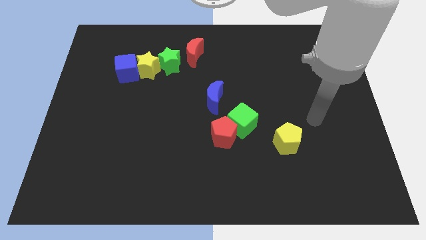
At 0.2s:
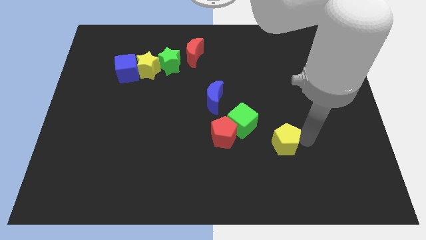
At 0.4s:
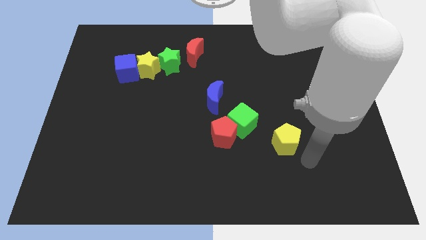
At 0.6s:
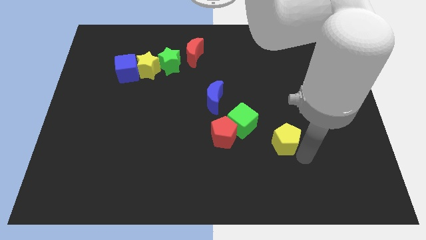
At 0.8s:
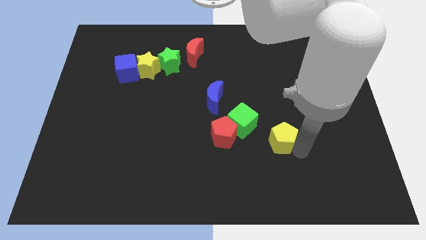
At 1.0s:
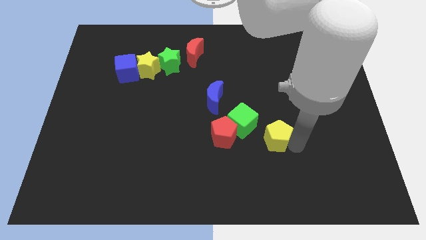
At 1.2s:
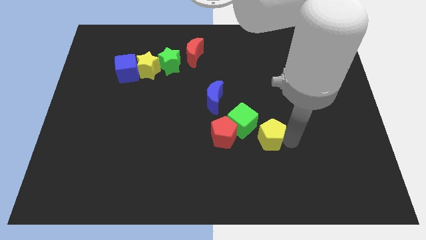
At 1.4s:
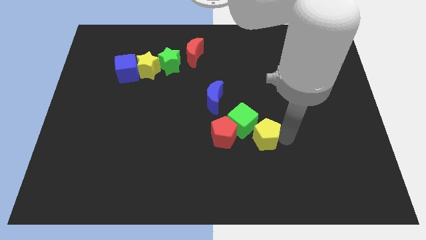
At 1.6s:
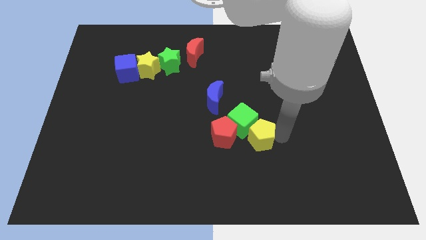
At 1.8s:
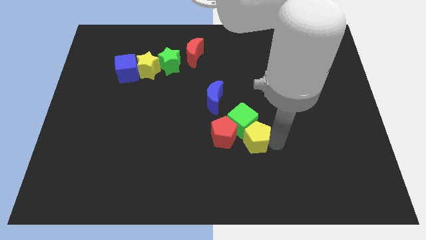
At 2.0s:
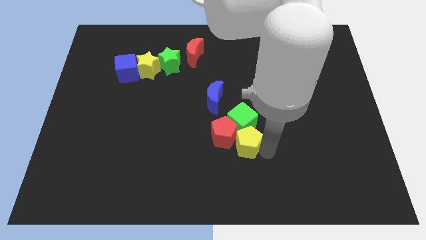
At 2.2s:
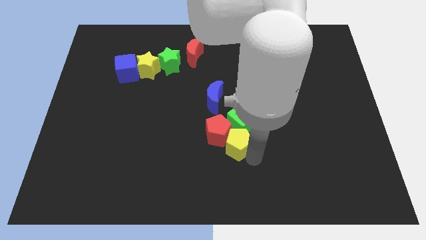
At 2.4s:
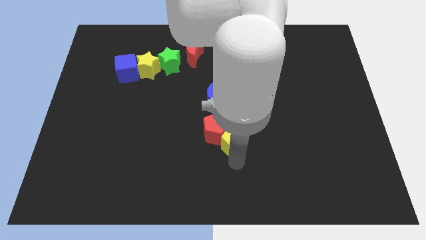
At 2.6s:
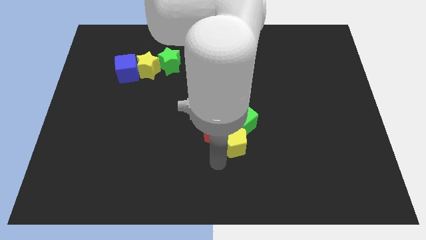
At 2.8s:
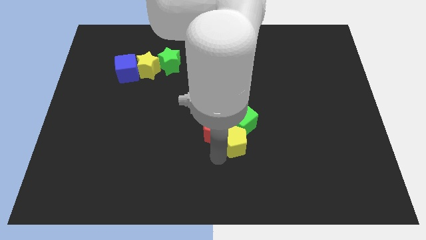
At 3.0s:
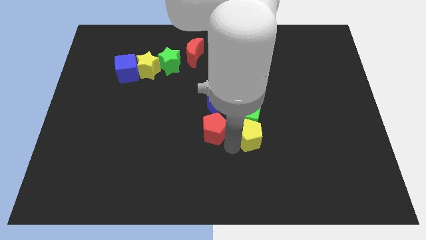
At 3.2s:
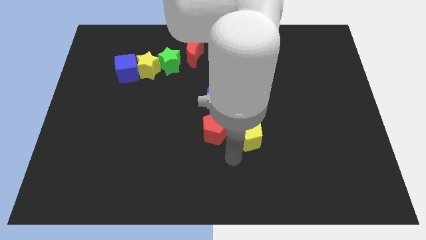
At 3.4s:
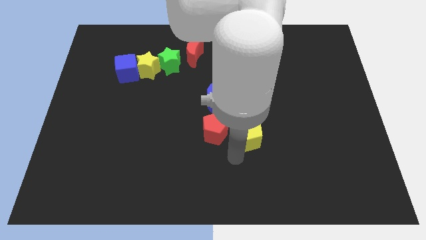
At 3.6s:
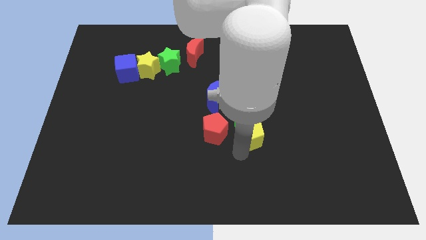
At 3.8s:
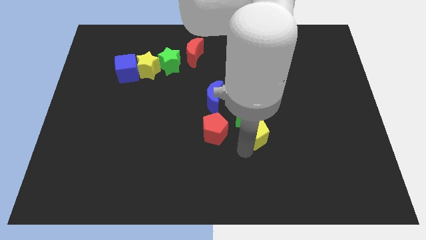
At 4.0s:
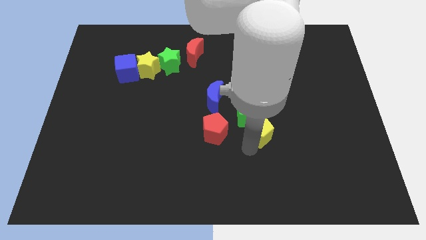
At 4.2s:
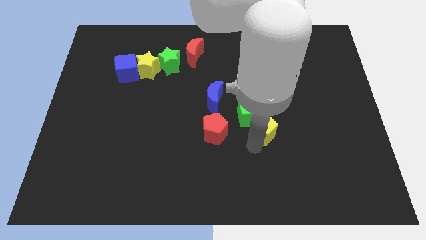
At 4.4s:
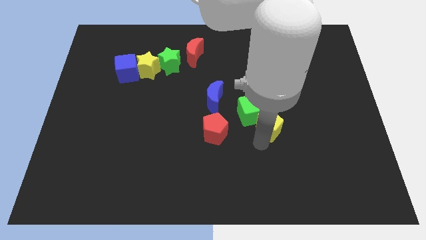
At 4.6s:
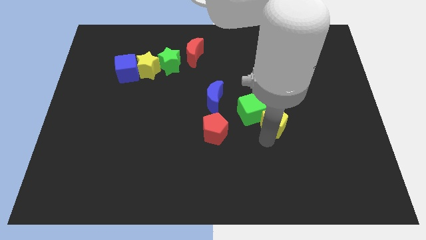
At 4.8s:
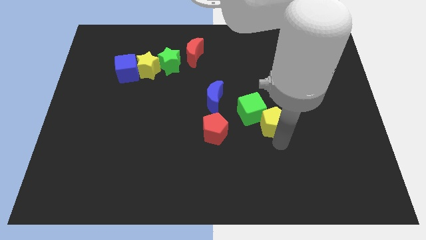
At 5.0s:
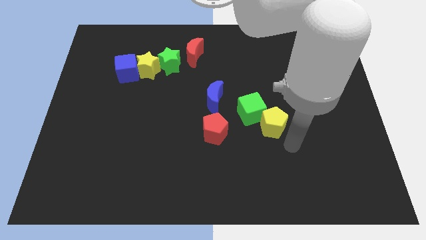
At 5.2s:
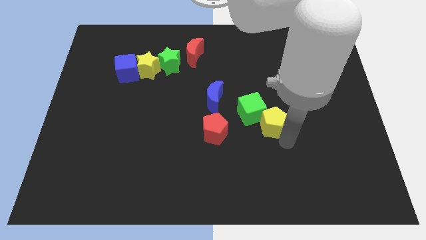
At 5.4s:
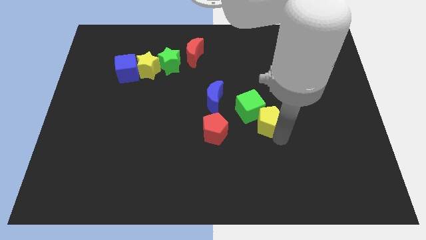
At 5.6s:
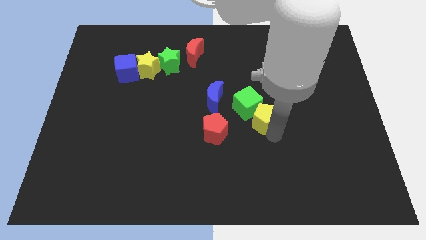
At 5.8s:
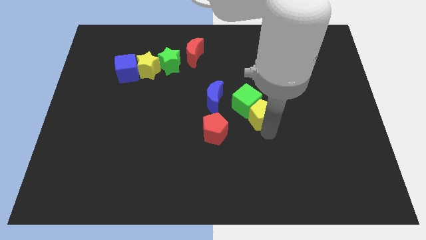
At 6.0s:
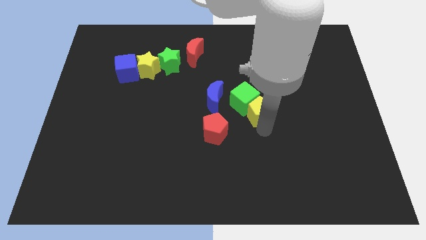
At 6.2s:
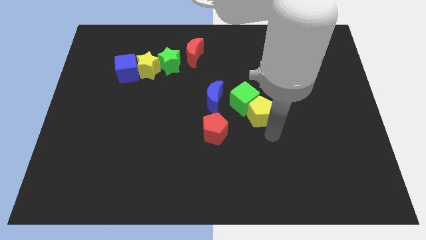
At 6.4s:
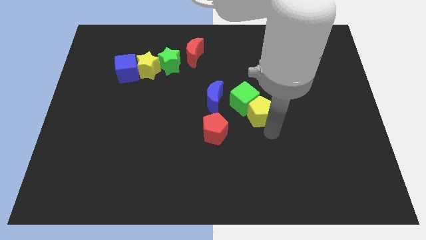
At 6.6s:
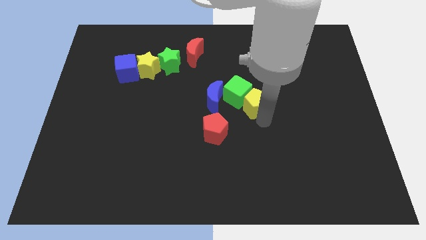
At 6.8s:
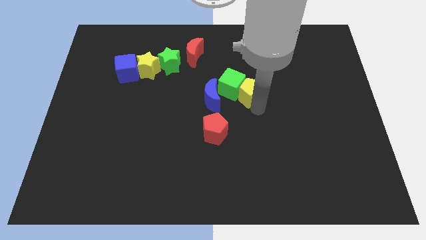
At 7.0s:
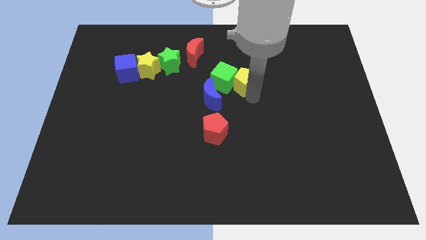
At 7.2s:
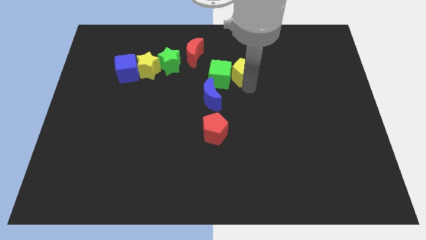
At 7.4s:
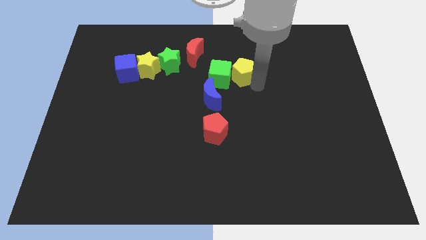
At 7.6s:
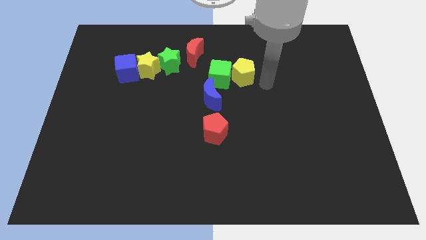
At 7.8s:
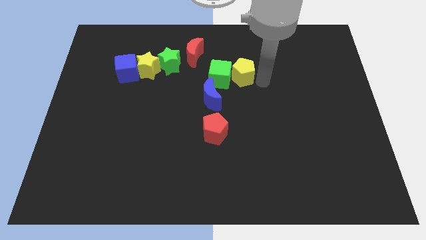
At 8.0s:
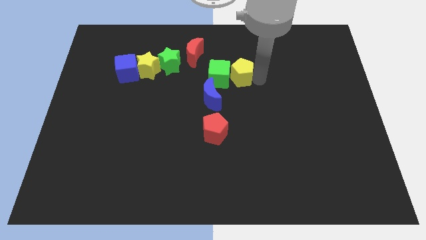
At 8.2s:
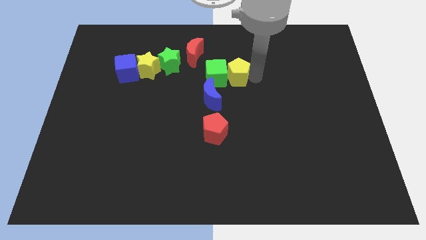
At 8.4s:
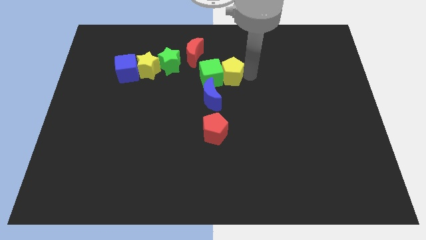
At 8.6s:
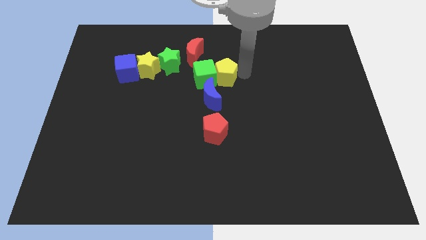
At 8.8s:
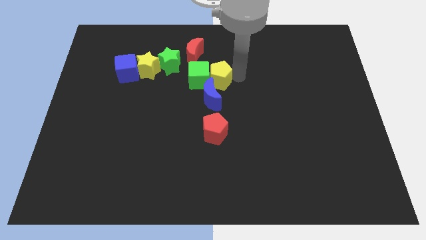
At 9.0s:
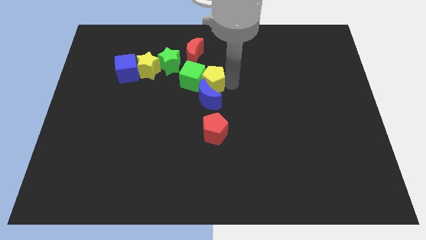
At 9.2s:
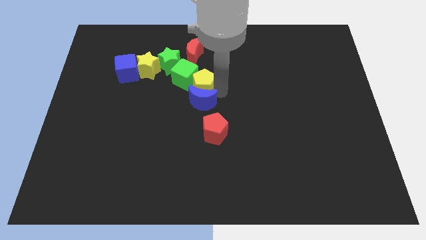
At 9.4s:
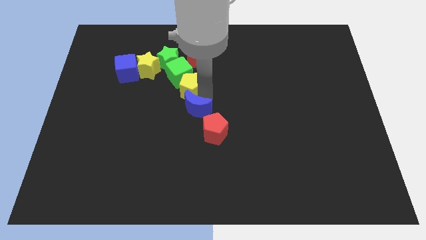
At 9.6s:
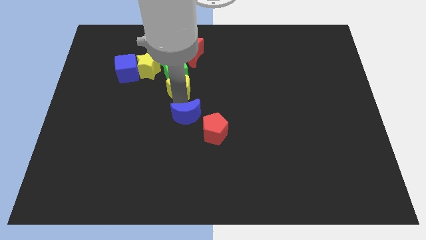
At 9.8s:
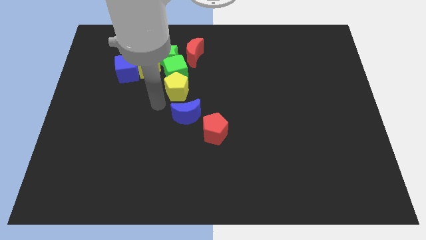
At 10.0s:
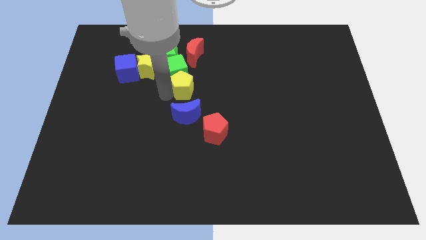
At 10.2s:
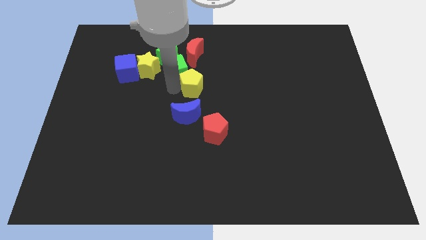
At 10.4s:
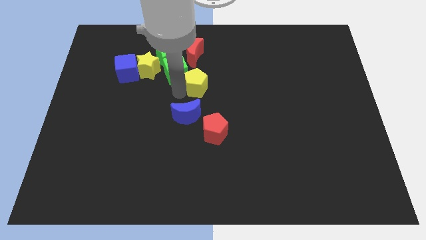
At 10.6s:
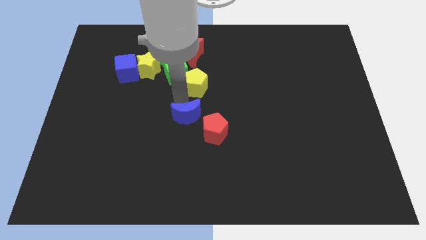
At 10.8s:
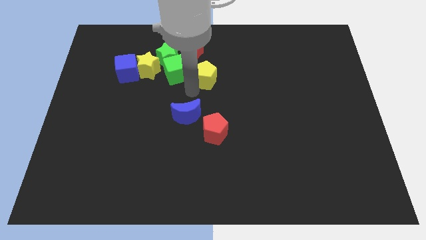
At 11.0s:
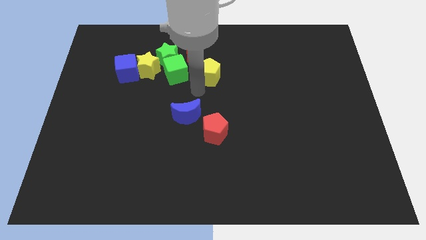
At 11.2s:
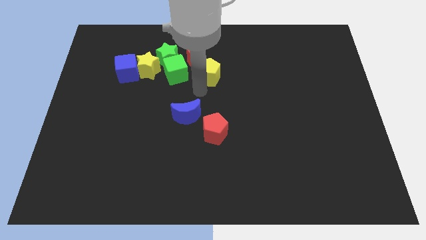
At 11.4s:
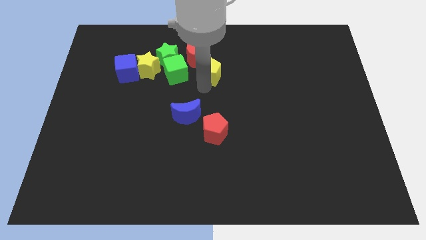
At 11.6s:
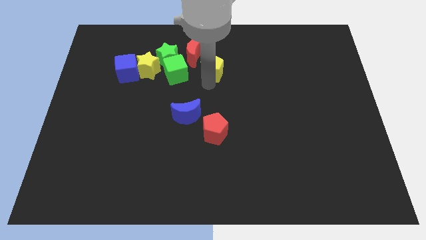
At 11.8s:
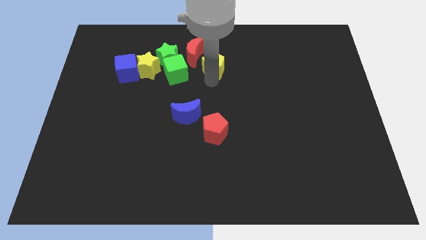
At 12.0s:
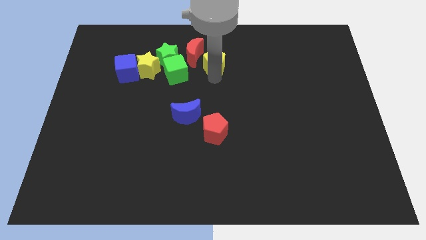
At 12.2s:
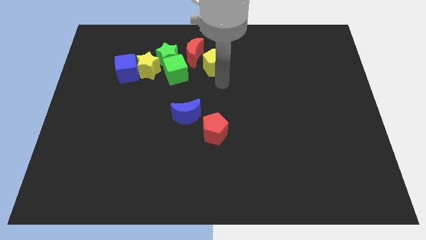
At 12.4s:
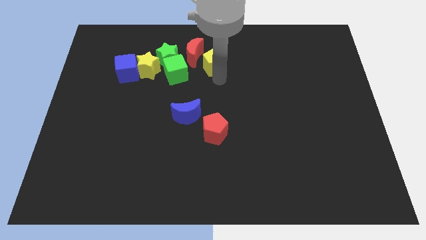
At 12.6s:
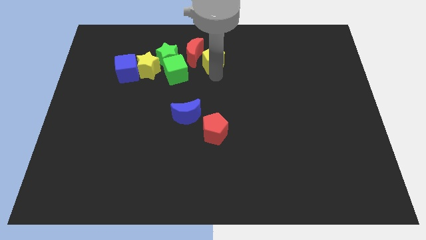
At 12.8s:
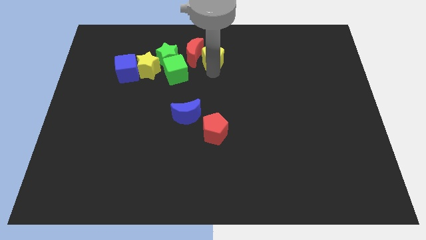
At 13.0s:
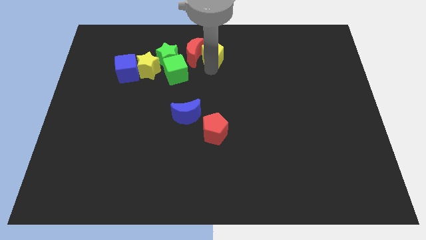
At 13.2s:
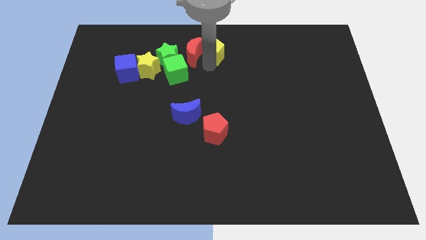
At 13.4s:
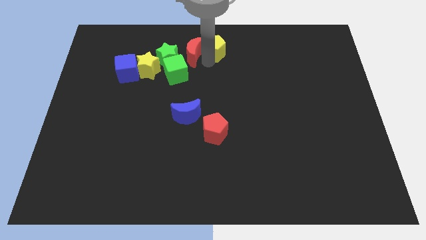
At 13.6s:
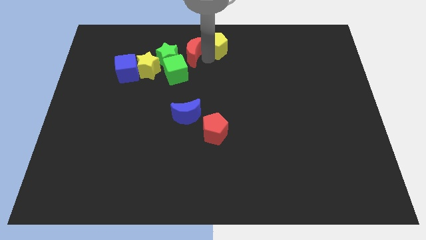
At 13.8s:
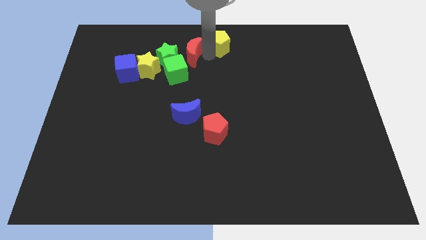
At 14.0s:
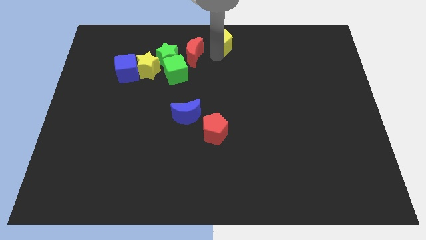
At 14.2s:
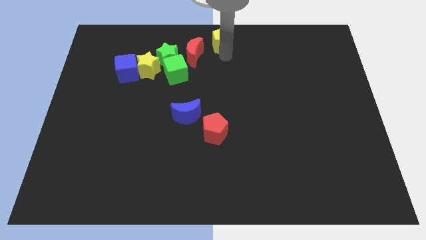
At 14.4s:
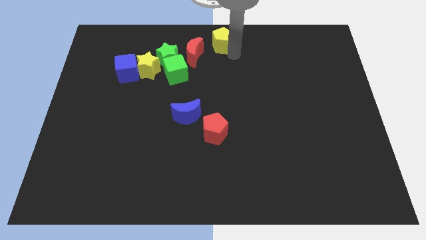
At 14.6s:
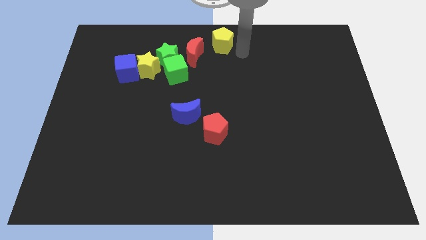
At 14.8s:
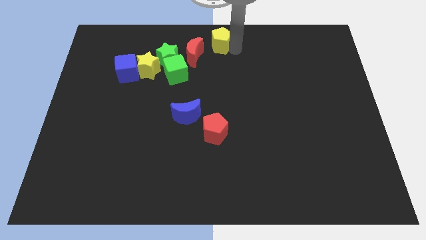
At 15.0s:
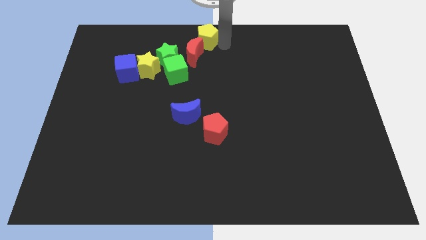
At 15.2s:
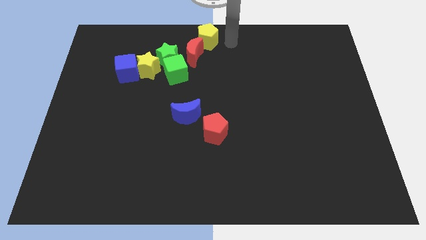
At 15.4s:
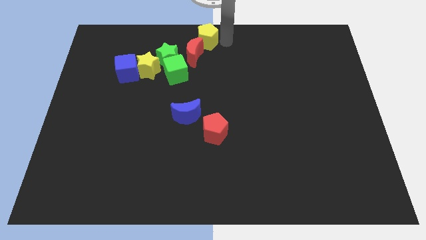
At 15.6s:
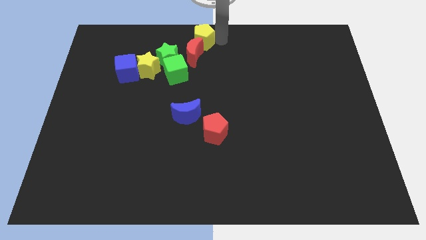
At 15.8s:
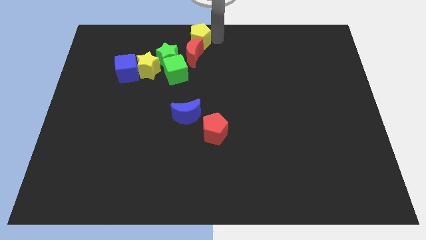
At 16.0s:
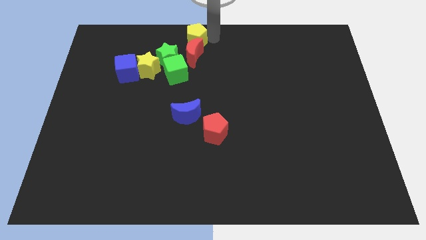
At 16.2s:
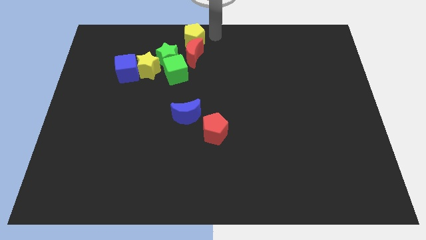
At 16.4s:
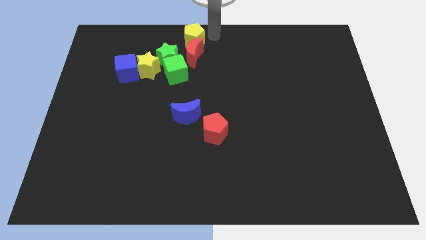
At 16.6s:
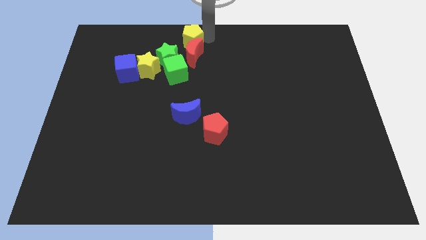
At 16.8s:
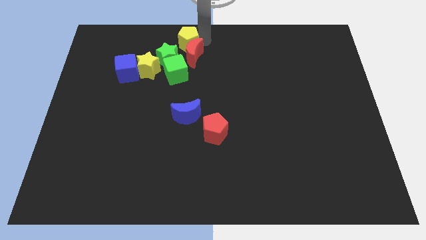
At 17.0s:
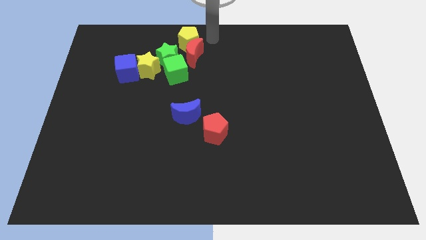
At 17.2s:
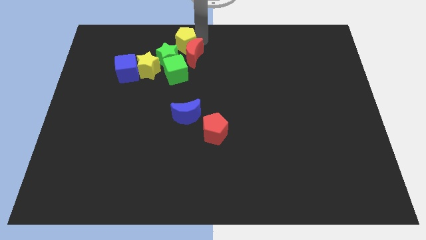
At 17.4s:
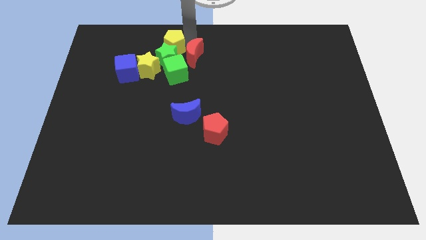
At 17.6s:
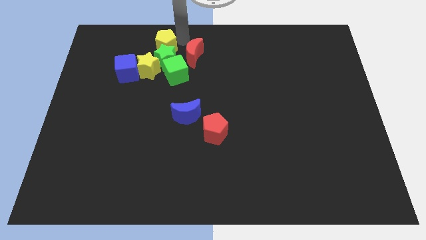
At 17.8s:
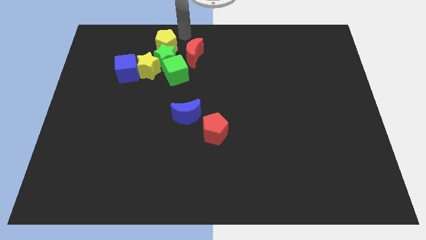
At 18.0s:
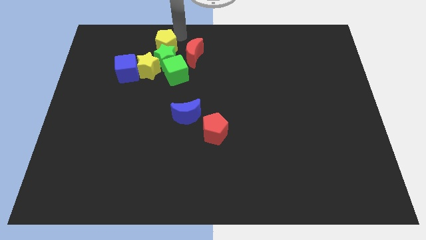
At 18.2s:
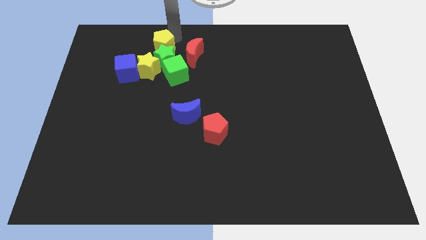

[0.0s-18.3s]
slide the yellow pentagon to the top right of the blue cube
